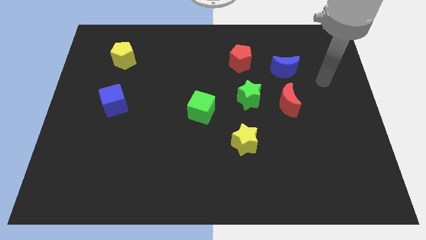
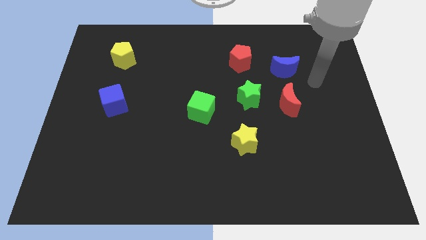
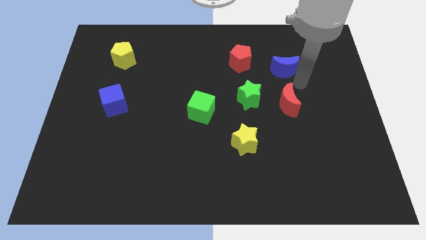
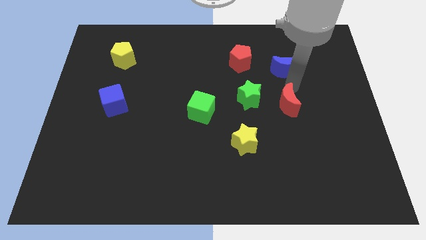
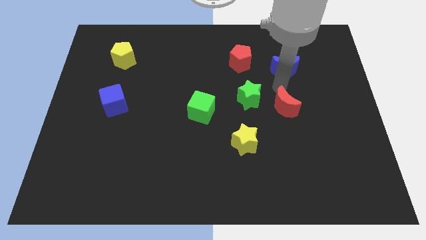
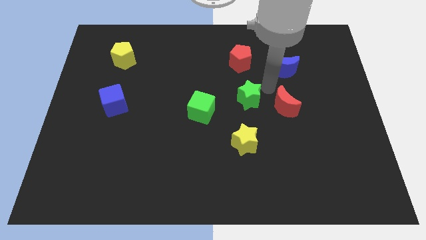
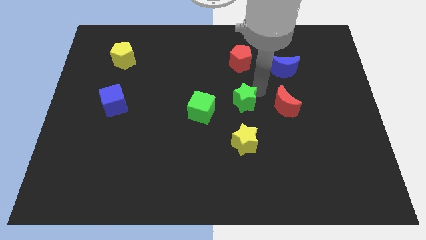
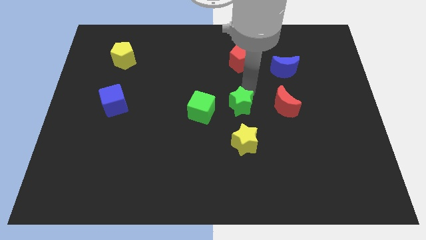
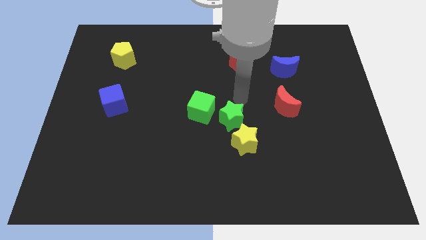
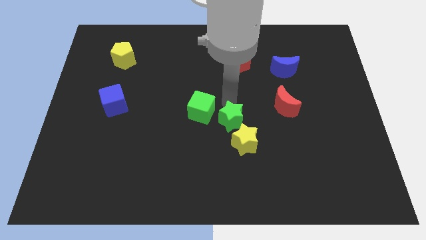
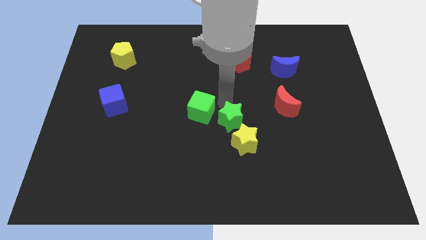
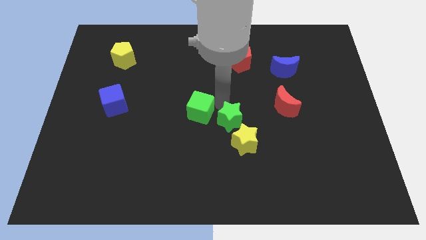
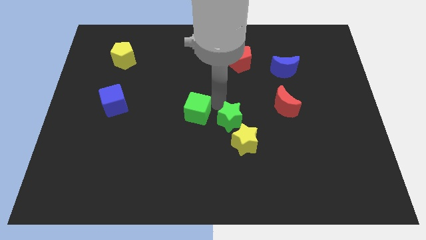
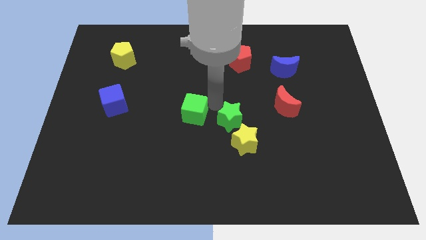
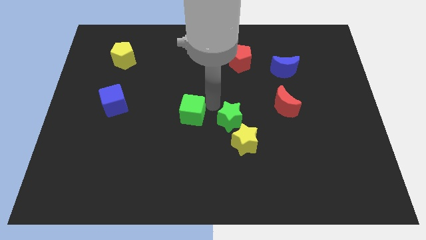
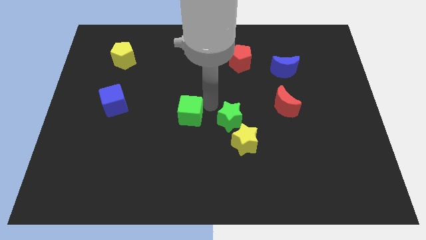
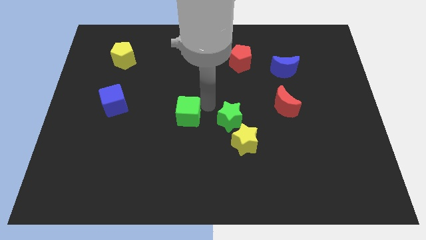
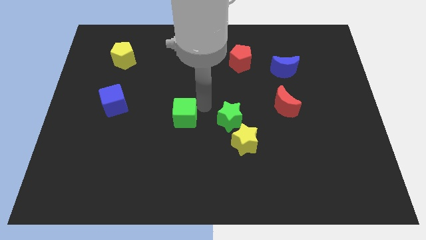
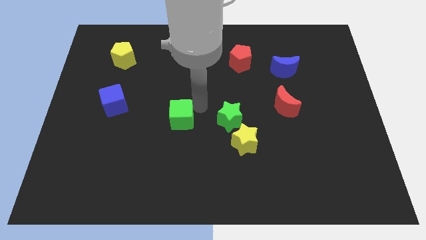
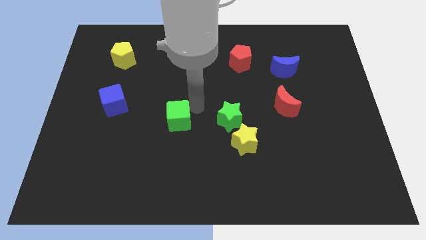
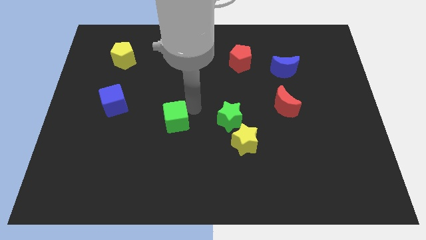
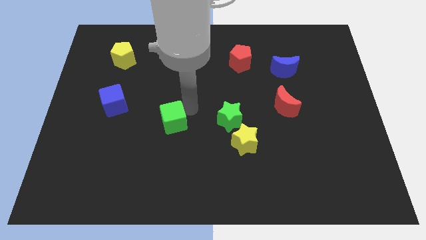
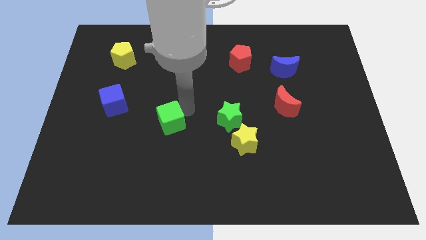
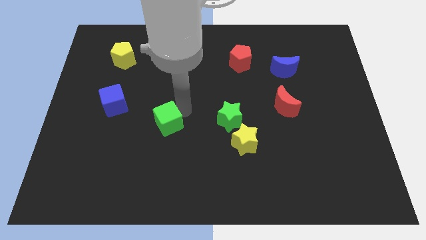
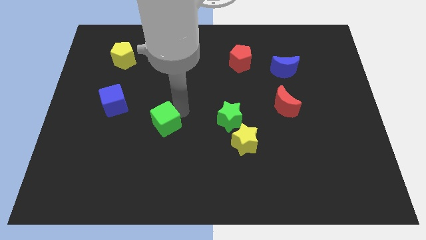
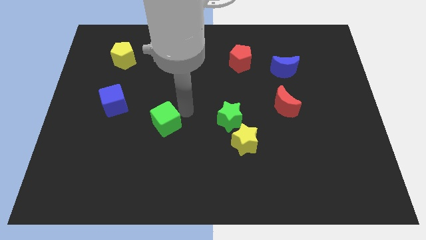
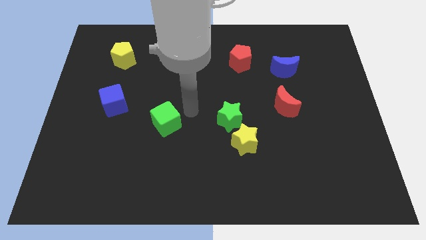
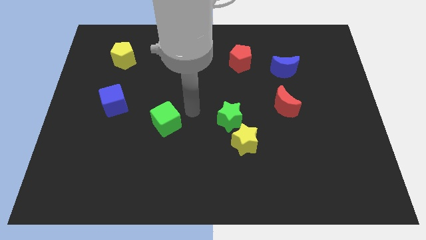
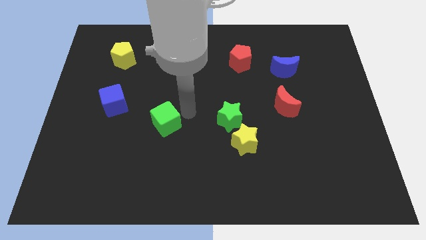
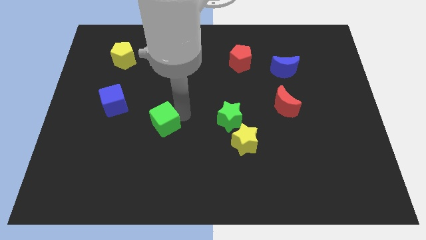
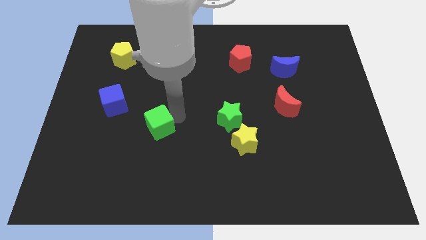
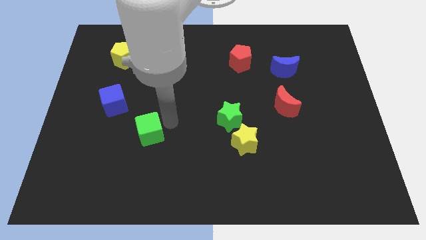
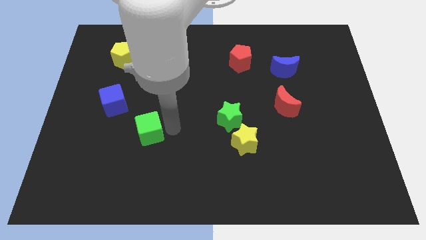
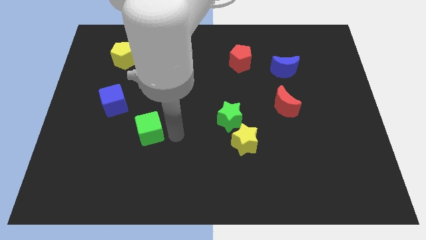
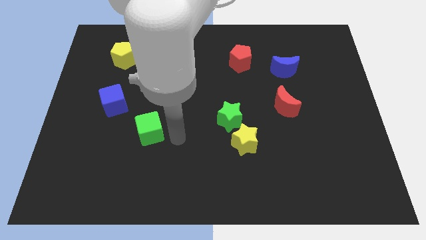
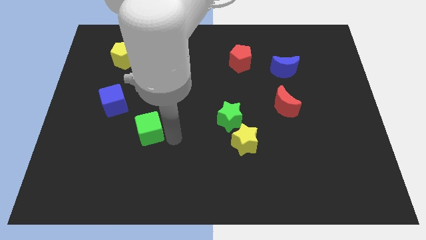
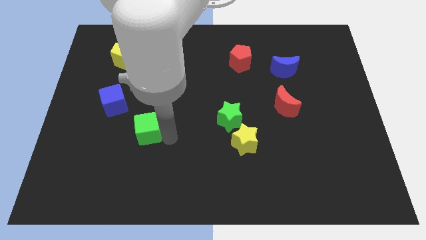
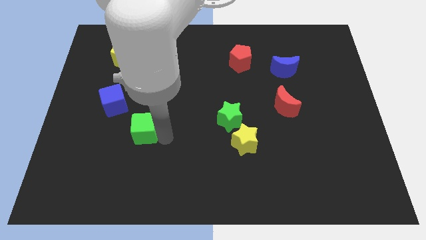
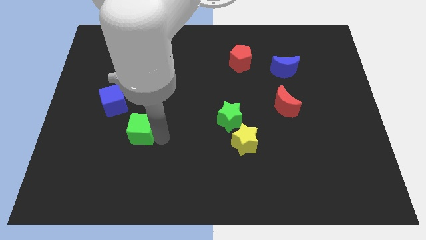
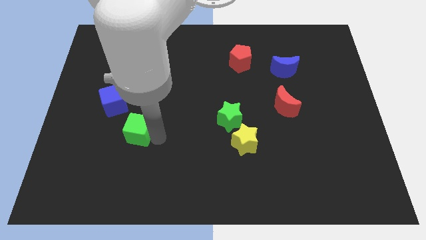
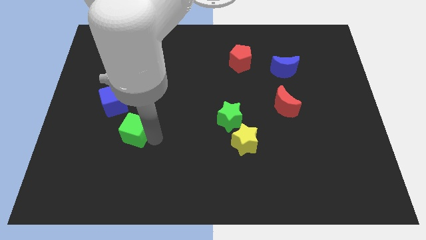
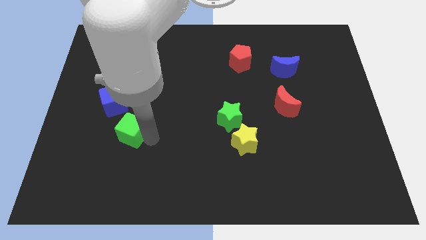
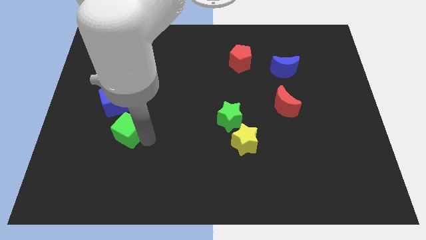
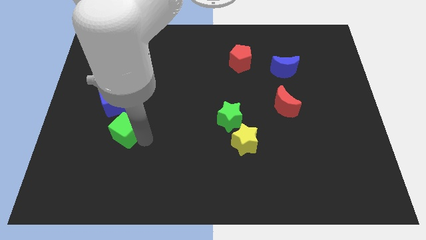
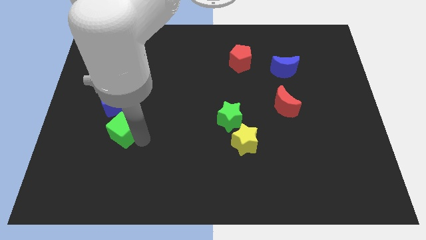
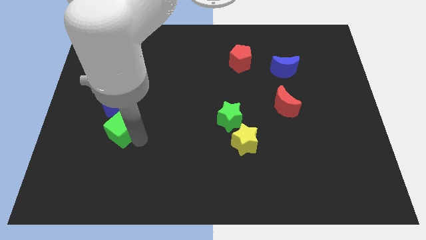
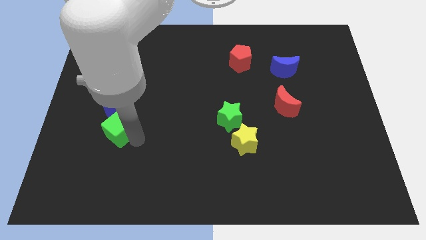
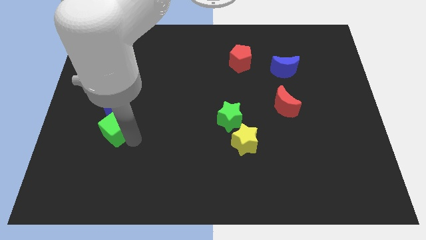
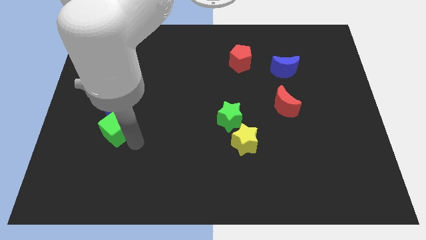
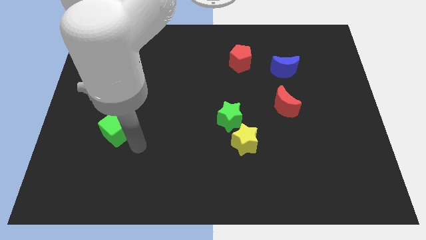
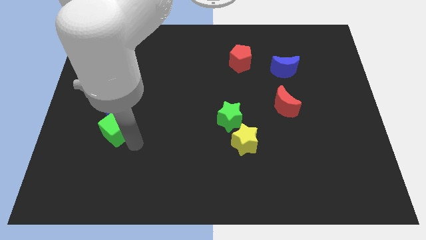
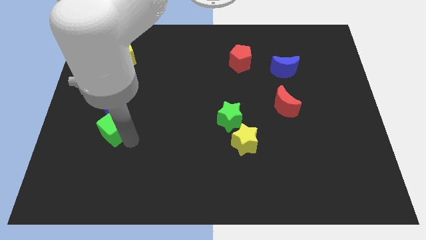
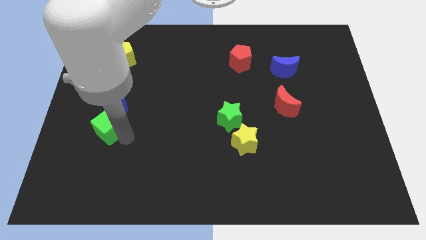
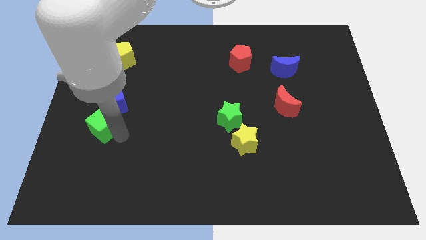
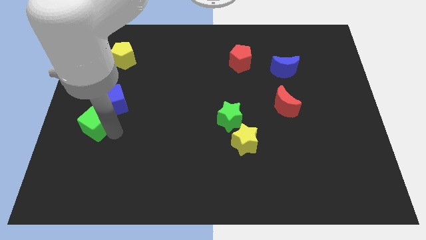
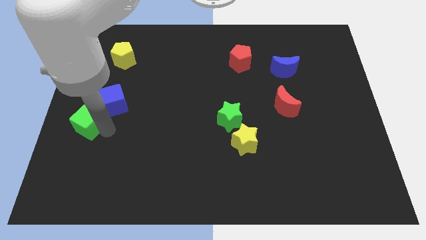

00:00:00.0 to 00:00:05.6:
put the green cube to the center left

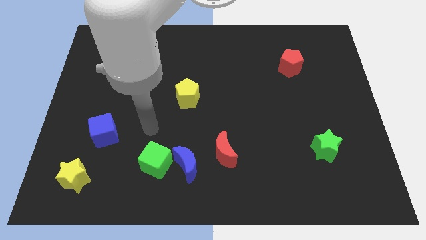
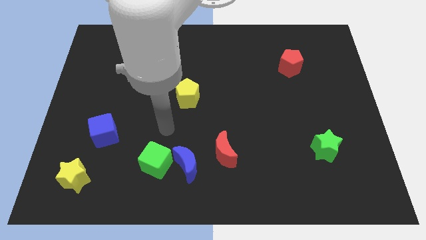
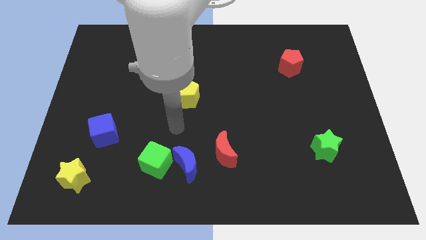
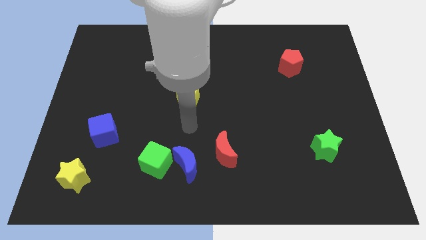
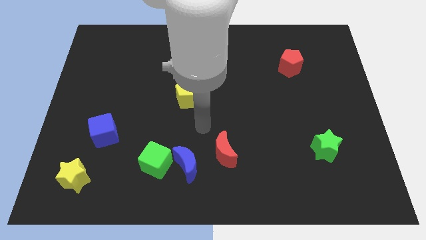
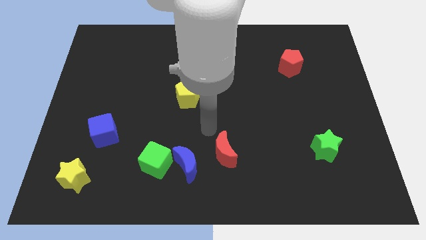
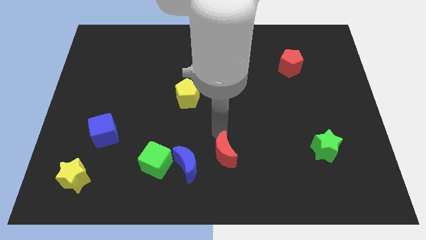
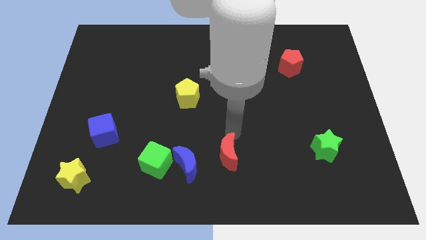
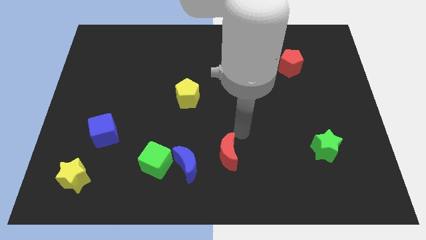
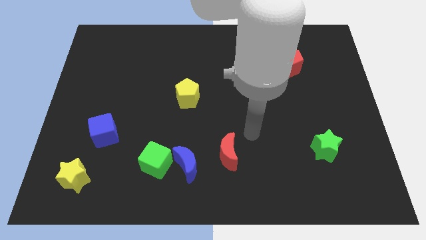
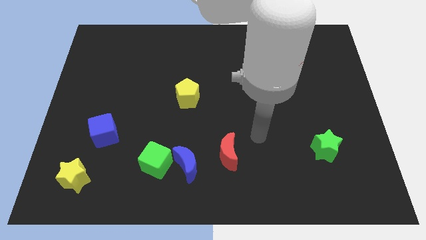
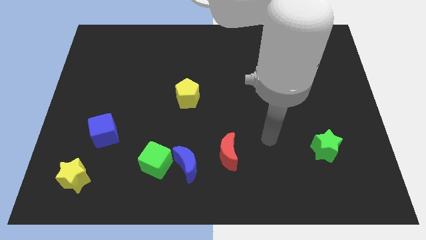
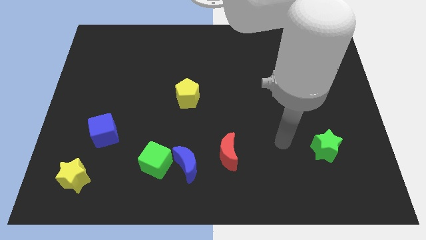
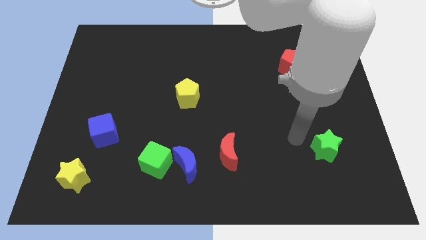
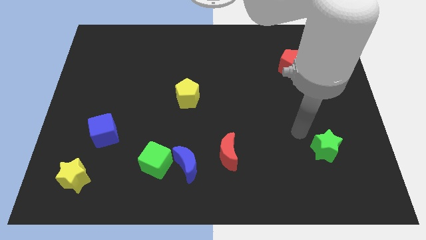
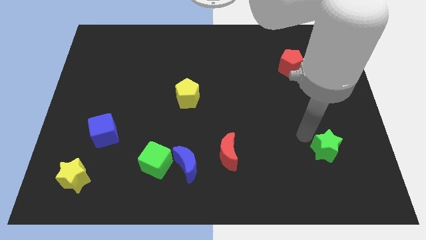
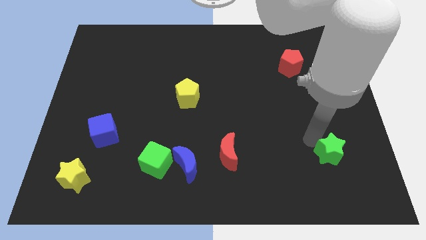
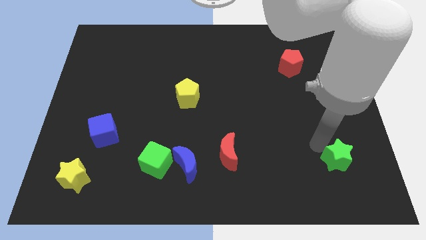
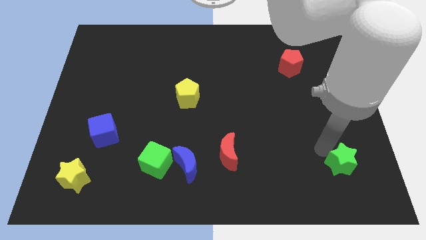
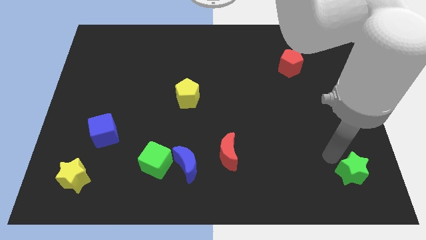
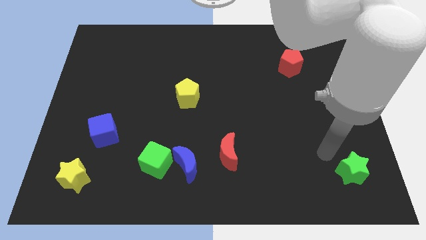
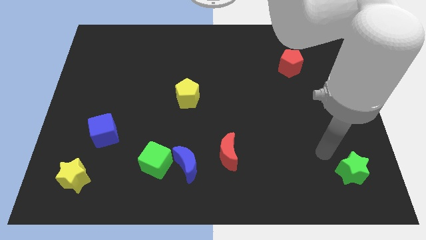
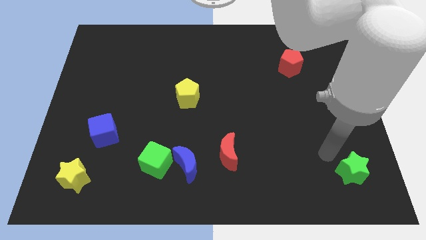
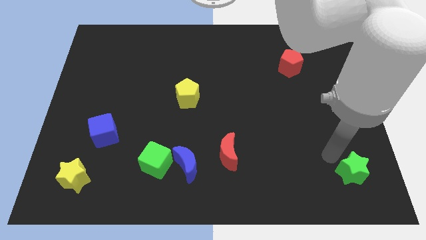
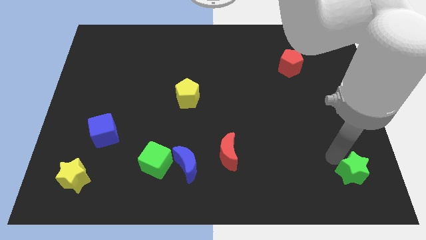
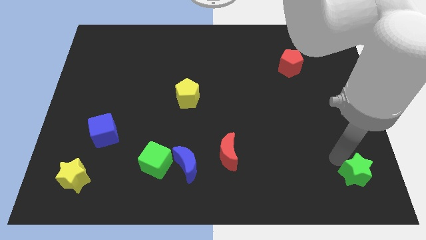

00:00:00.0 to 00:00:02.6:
put the green star to the bottom right of the board
